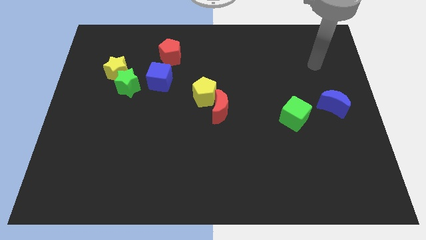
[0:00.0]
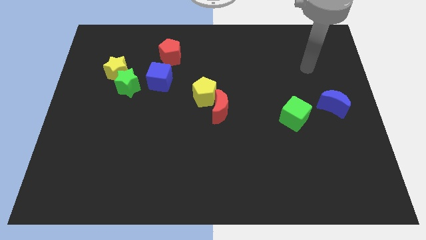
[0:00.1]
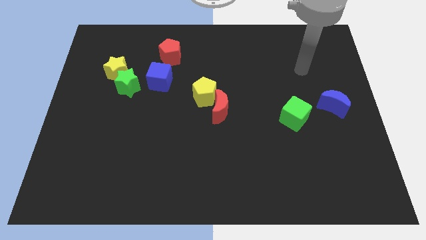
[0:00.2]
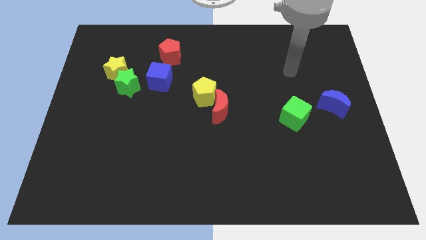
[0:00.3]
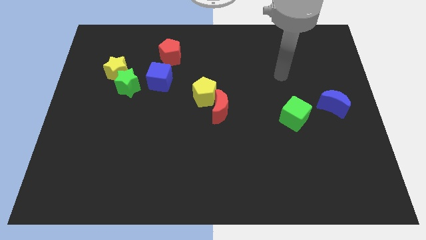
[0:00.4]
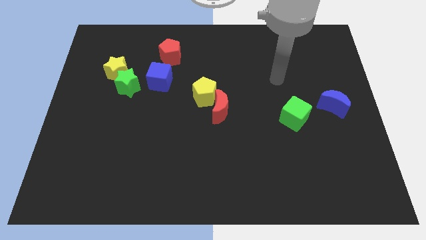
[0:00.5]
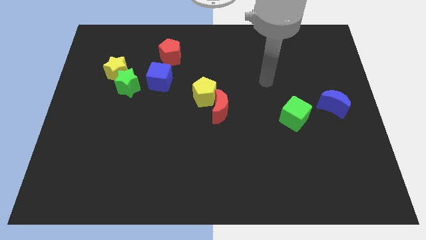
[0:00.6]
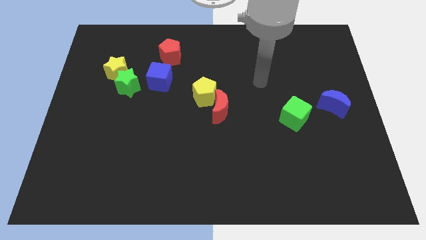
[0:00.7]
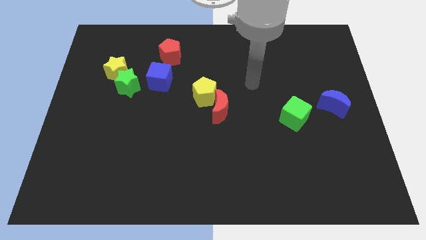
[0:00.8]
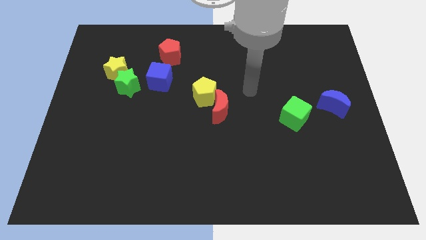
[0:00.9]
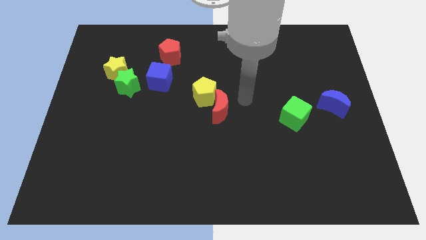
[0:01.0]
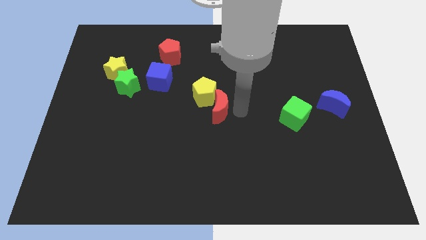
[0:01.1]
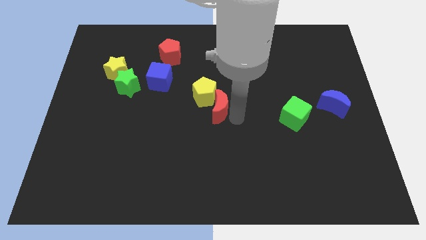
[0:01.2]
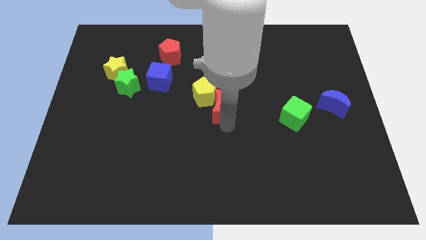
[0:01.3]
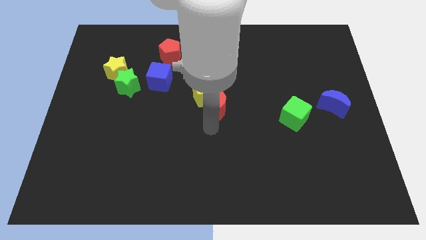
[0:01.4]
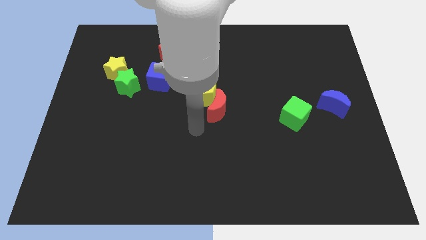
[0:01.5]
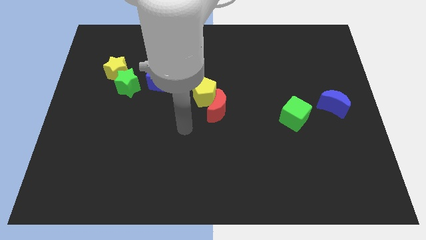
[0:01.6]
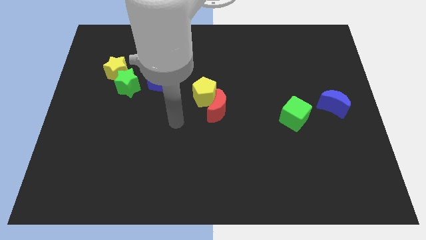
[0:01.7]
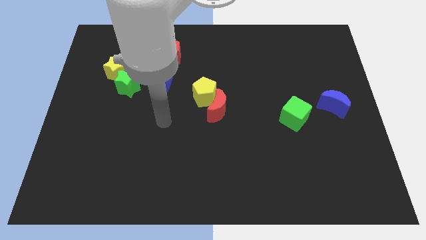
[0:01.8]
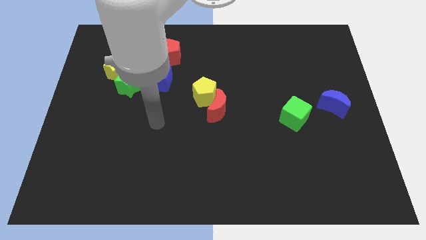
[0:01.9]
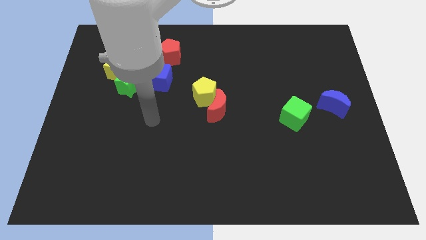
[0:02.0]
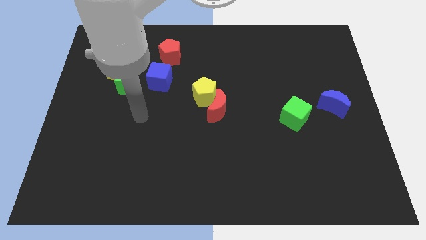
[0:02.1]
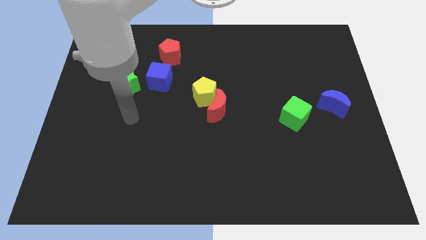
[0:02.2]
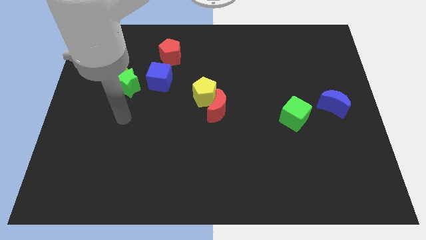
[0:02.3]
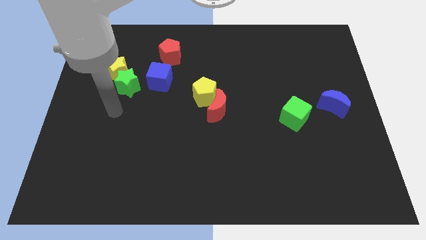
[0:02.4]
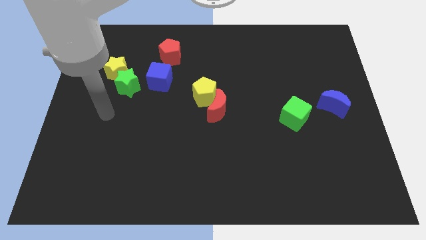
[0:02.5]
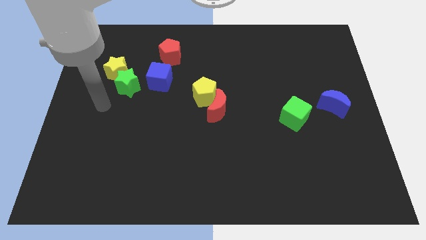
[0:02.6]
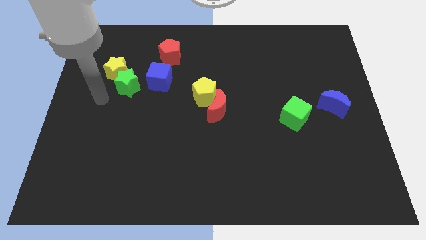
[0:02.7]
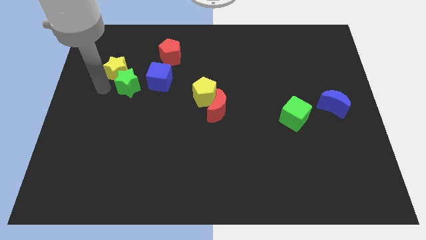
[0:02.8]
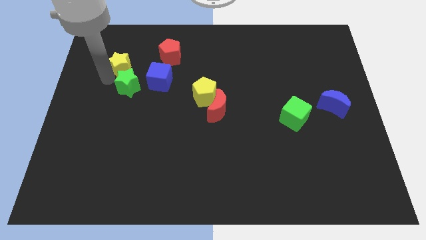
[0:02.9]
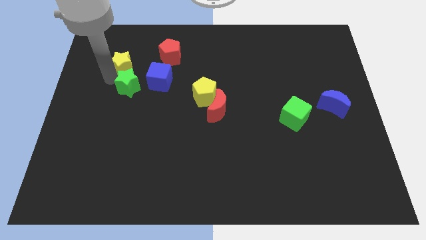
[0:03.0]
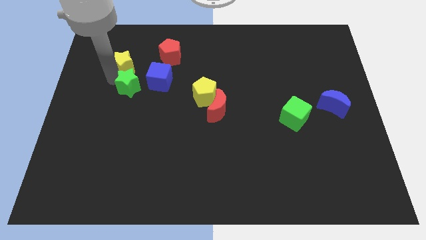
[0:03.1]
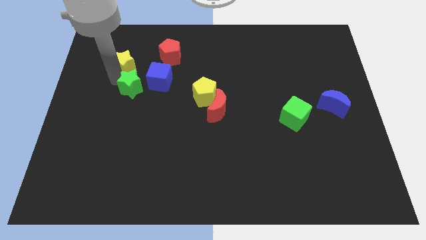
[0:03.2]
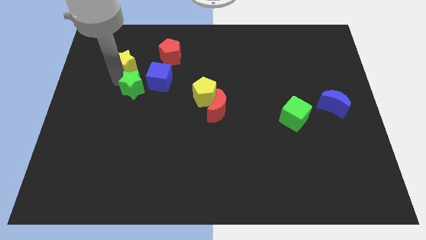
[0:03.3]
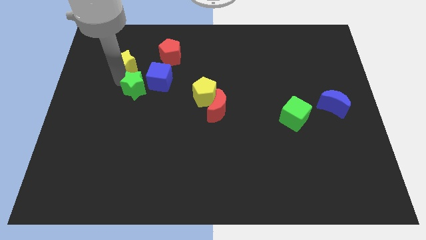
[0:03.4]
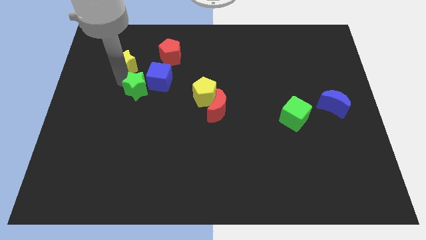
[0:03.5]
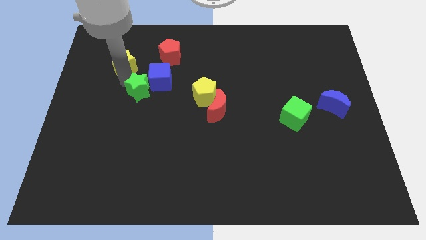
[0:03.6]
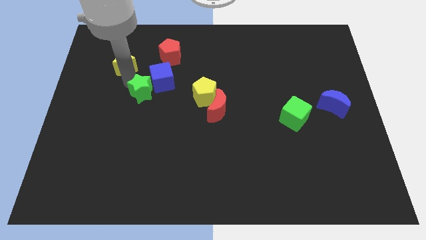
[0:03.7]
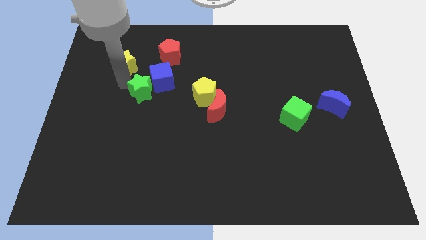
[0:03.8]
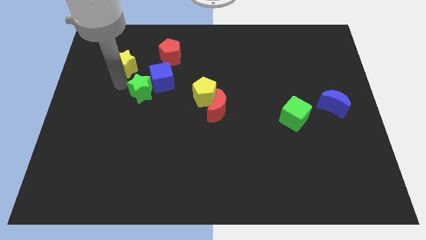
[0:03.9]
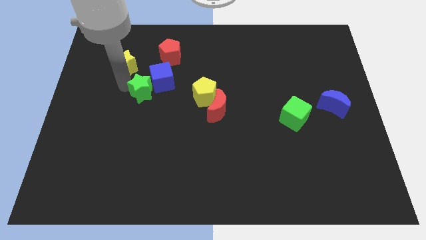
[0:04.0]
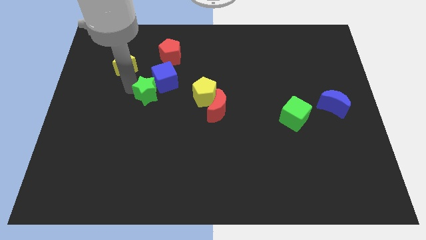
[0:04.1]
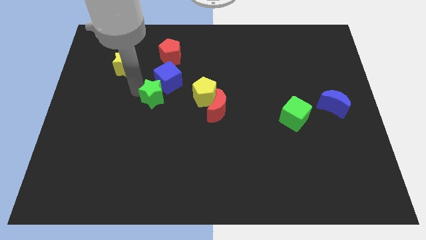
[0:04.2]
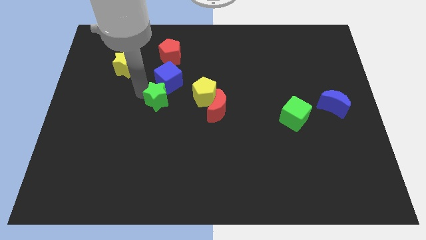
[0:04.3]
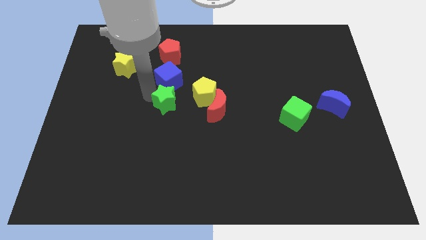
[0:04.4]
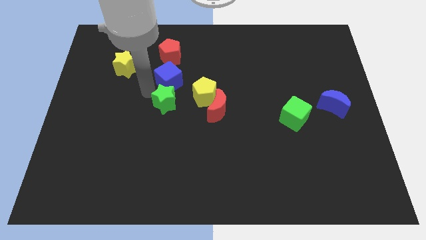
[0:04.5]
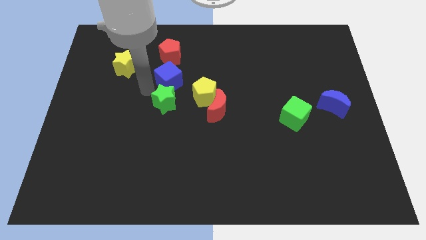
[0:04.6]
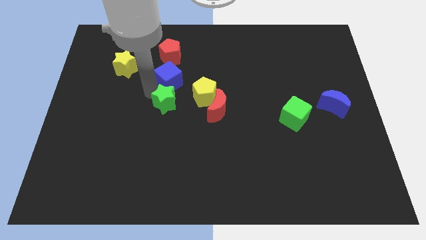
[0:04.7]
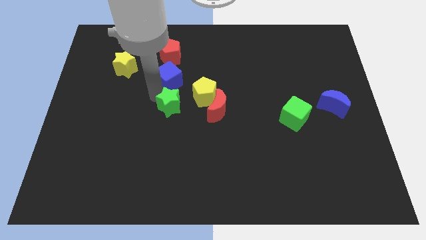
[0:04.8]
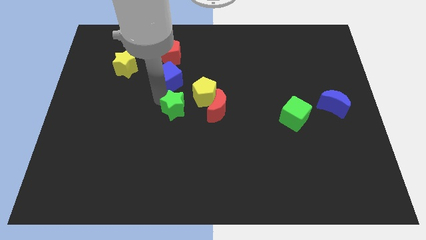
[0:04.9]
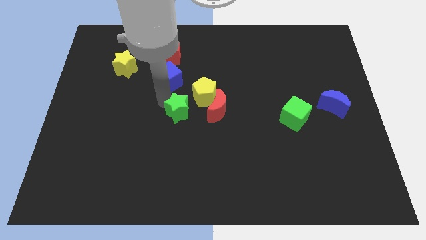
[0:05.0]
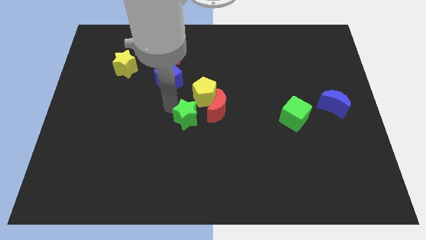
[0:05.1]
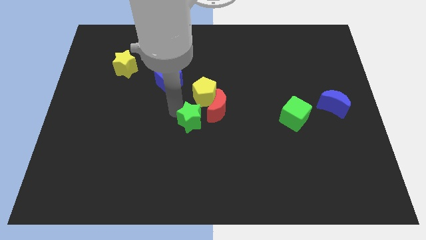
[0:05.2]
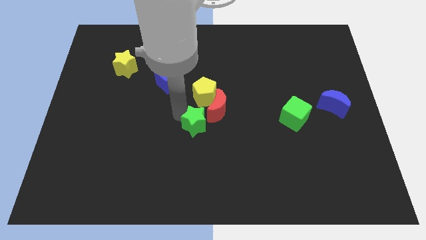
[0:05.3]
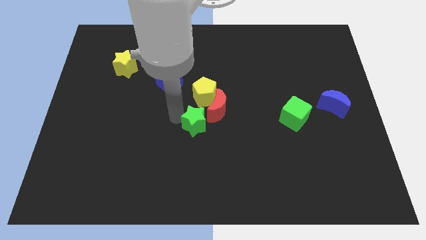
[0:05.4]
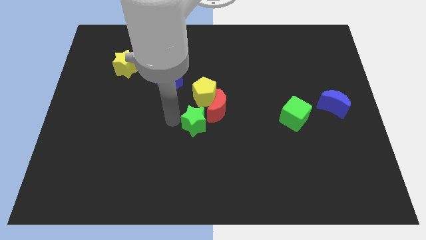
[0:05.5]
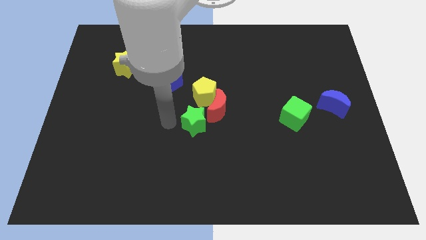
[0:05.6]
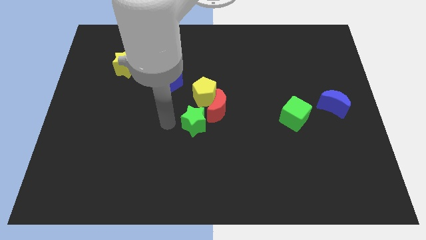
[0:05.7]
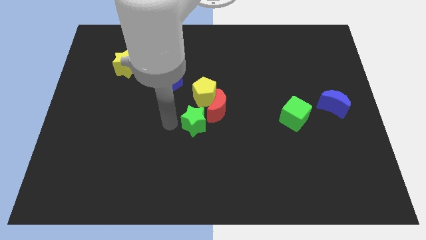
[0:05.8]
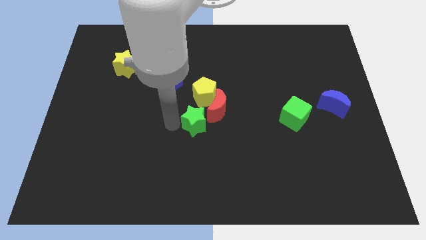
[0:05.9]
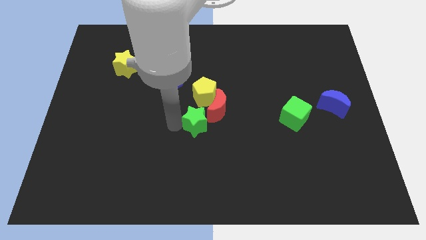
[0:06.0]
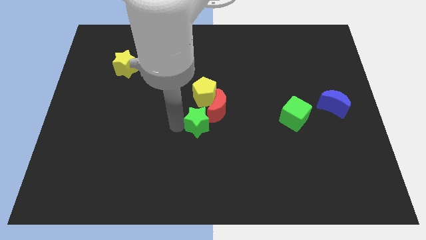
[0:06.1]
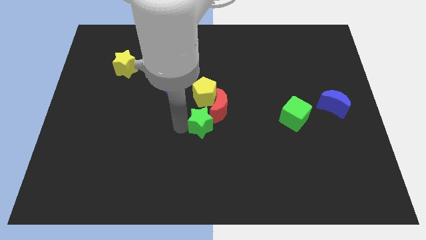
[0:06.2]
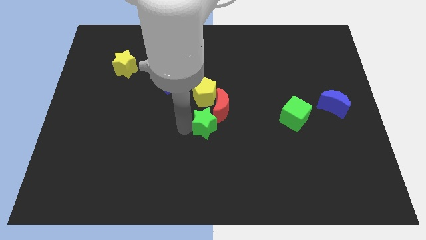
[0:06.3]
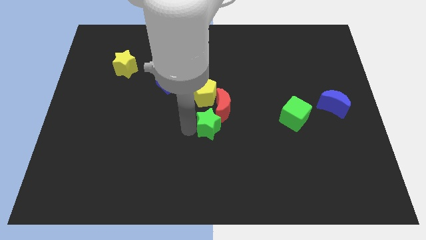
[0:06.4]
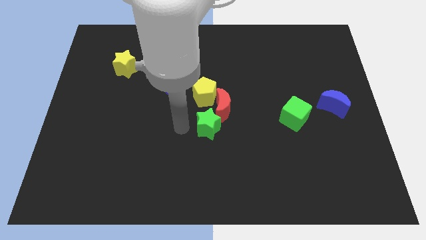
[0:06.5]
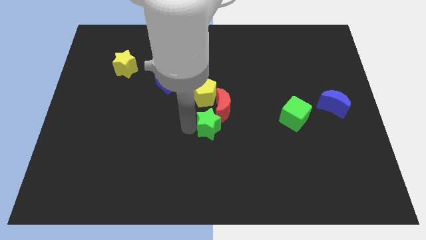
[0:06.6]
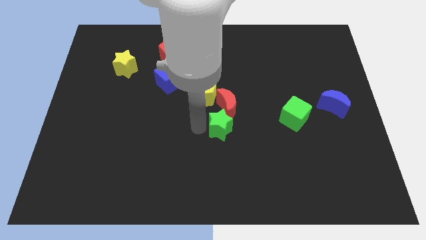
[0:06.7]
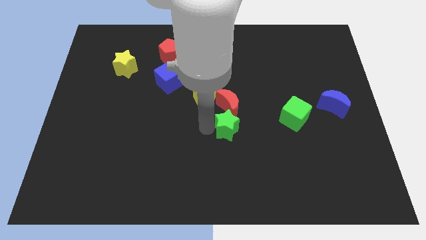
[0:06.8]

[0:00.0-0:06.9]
move the green star to the bottom right of the red moon

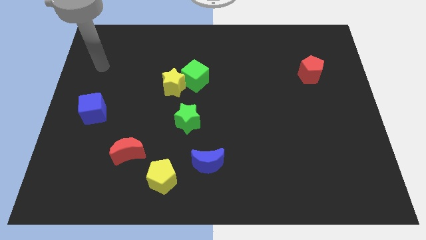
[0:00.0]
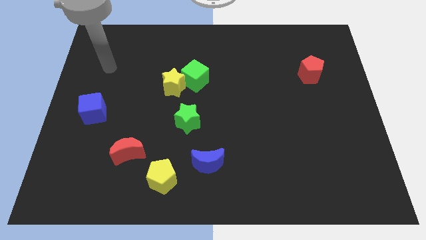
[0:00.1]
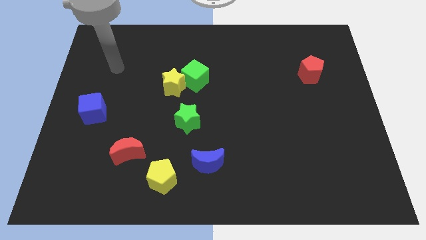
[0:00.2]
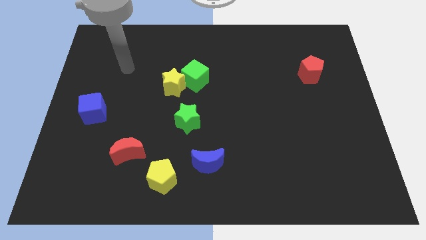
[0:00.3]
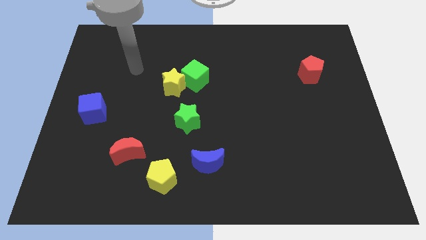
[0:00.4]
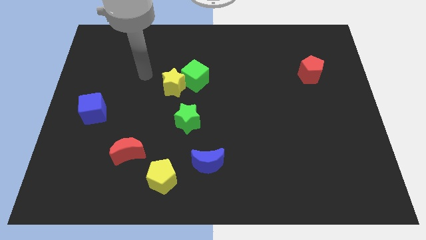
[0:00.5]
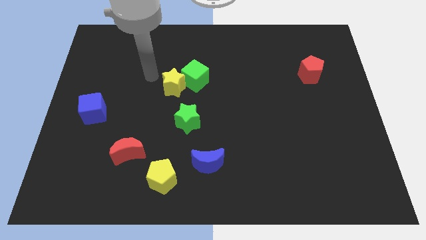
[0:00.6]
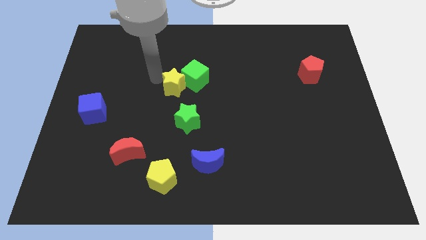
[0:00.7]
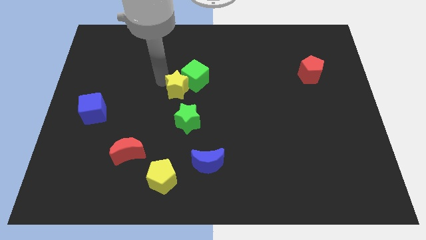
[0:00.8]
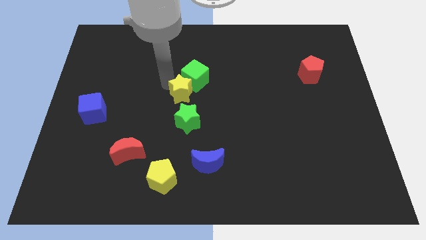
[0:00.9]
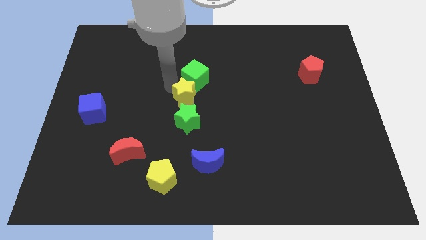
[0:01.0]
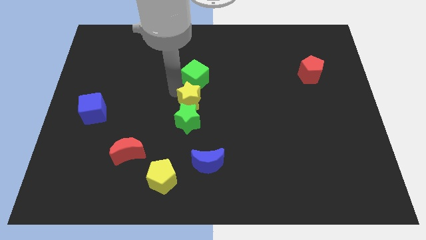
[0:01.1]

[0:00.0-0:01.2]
move the yellow star to the top right of the green star
